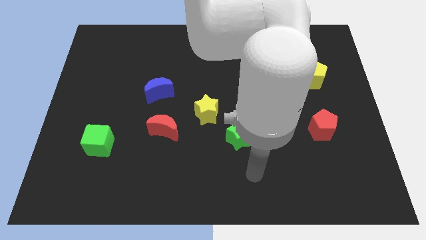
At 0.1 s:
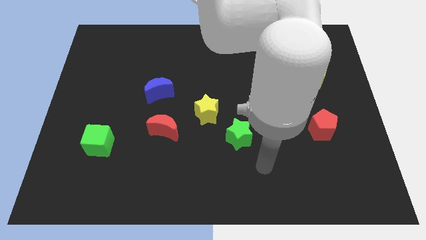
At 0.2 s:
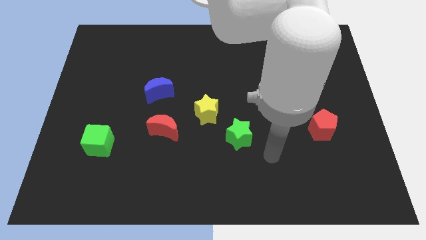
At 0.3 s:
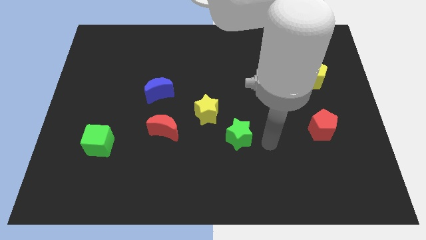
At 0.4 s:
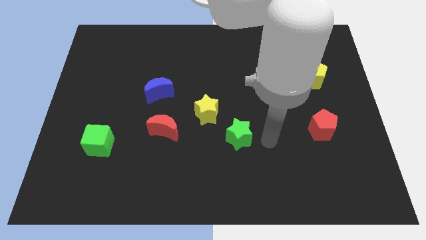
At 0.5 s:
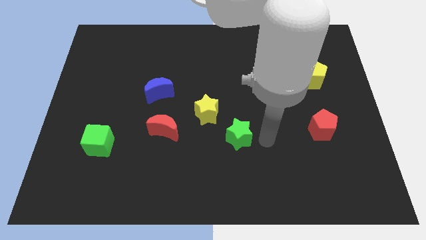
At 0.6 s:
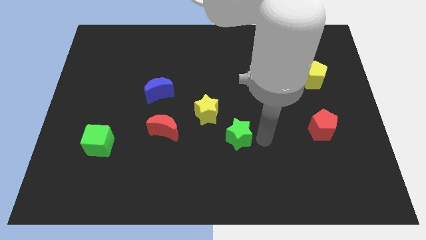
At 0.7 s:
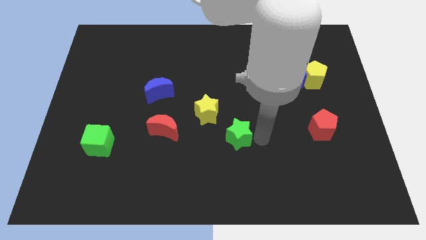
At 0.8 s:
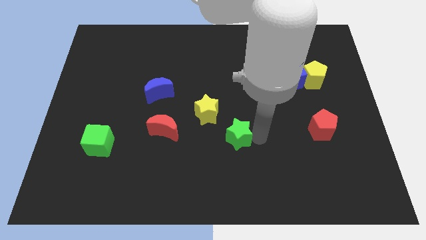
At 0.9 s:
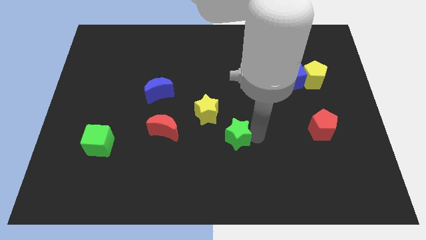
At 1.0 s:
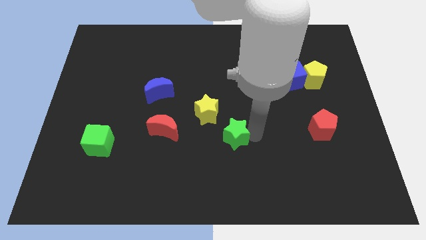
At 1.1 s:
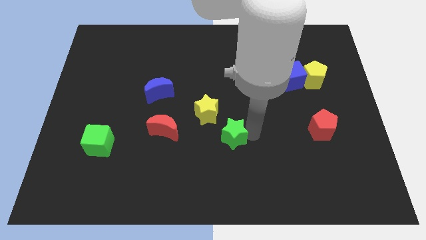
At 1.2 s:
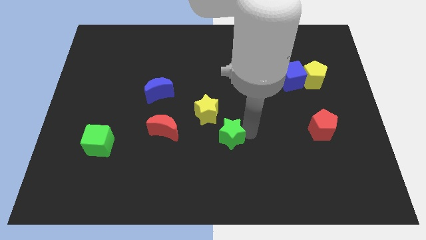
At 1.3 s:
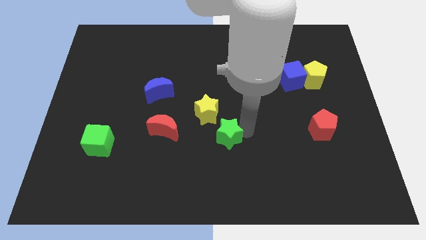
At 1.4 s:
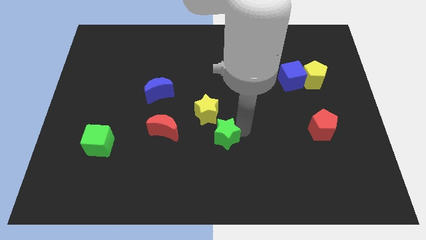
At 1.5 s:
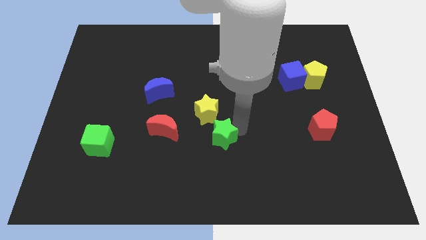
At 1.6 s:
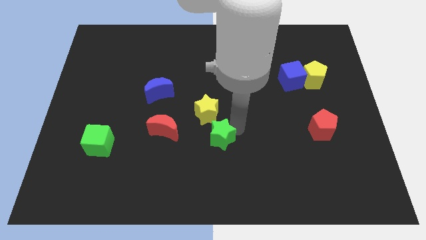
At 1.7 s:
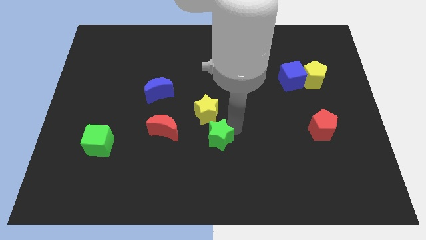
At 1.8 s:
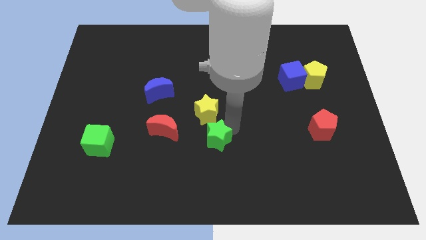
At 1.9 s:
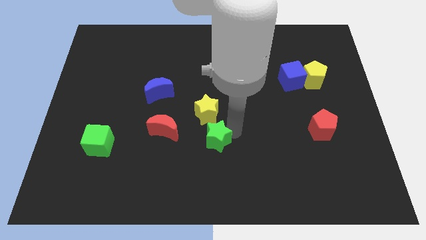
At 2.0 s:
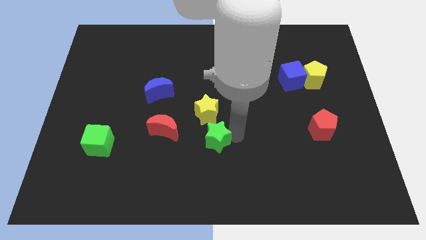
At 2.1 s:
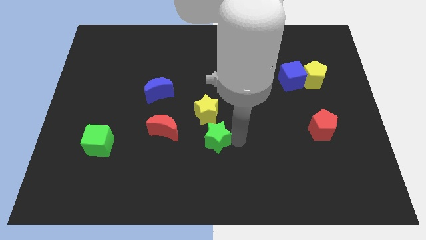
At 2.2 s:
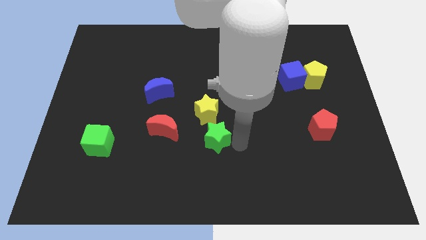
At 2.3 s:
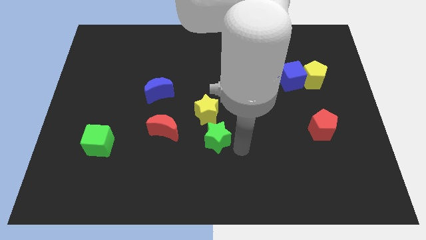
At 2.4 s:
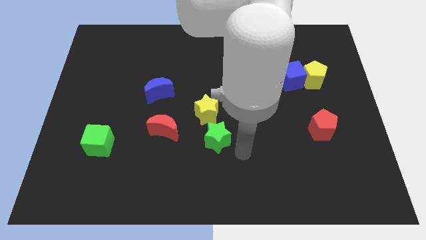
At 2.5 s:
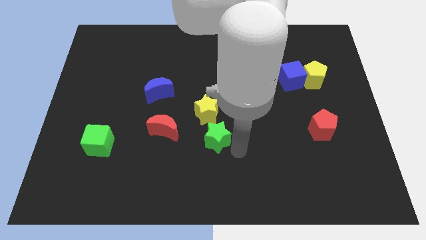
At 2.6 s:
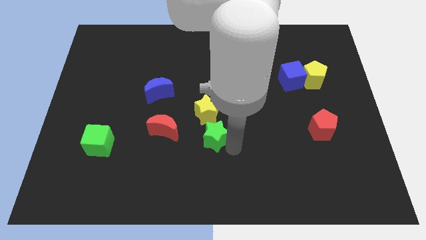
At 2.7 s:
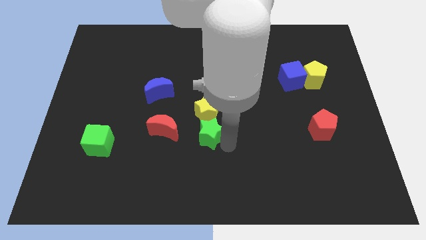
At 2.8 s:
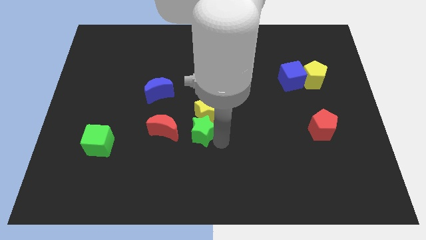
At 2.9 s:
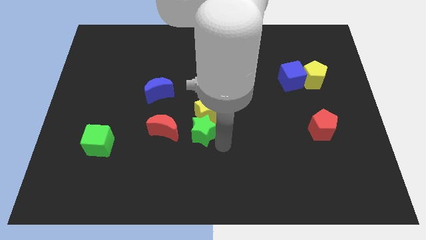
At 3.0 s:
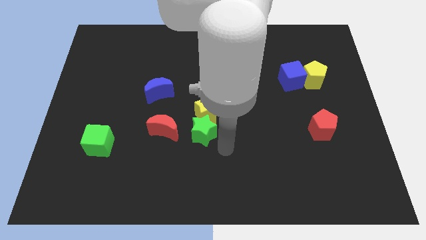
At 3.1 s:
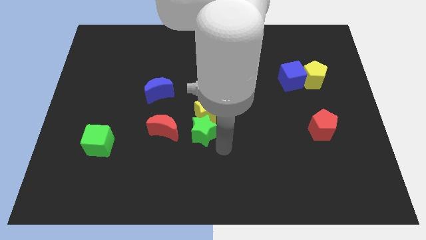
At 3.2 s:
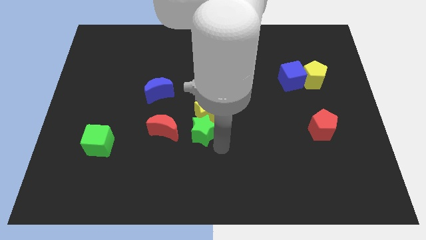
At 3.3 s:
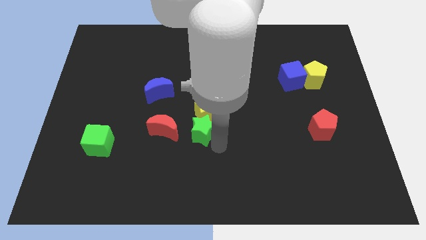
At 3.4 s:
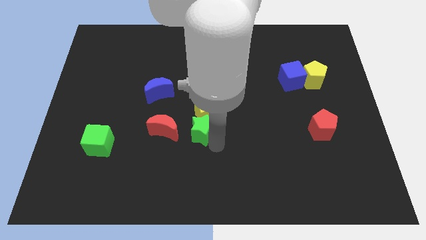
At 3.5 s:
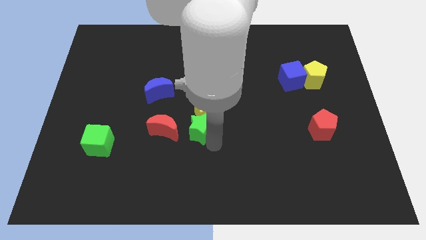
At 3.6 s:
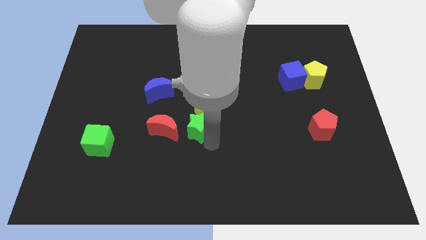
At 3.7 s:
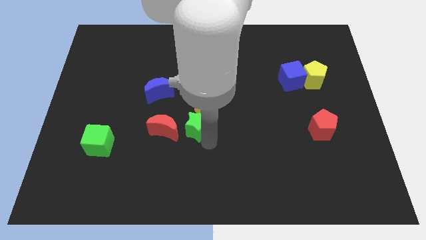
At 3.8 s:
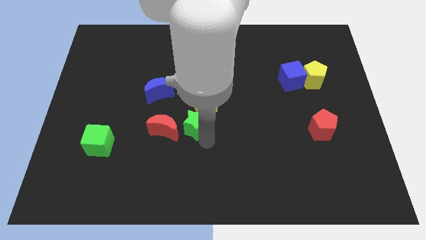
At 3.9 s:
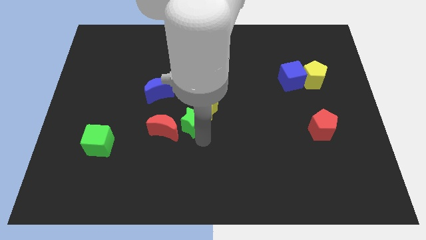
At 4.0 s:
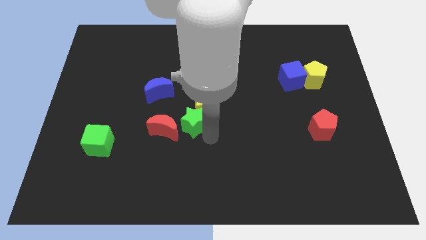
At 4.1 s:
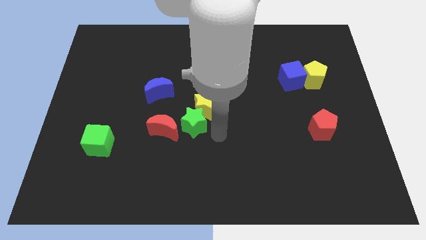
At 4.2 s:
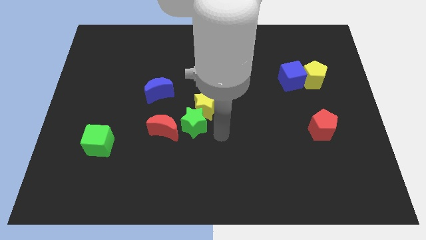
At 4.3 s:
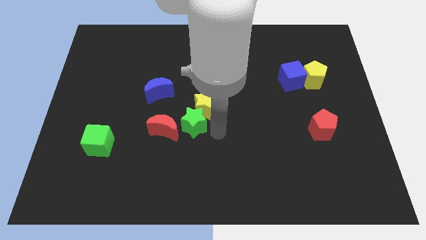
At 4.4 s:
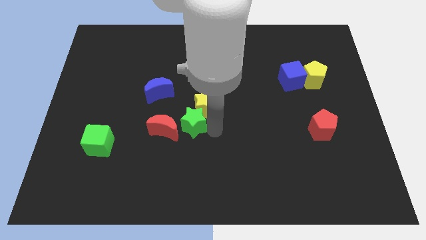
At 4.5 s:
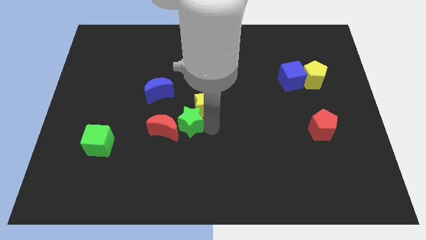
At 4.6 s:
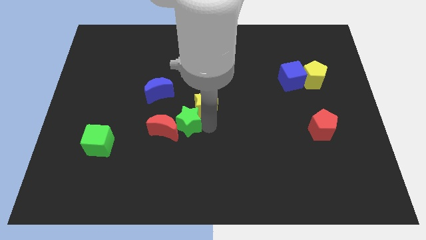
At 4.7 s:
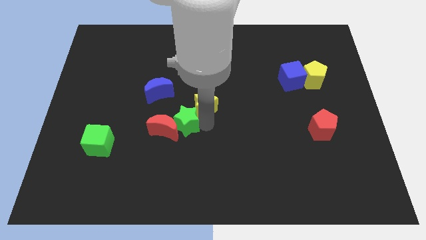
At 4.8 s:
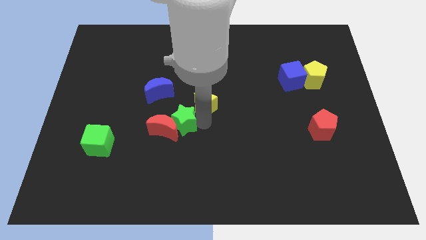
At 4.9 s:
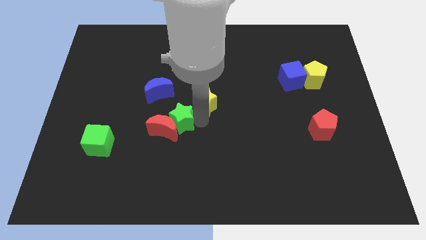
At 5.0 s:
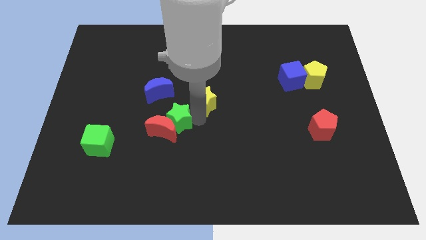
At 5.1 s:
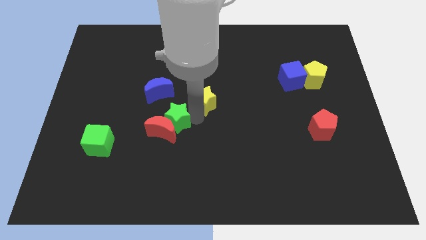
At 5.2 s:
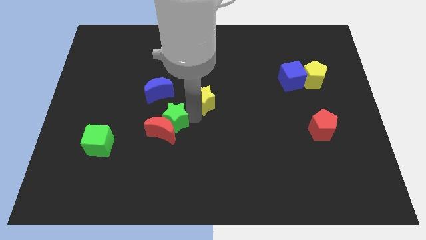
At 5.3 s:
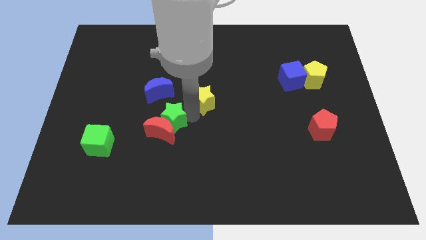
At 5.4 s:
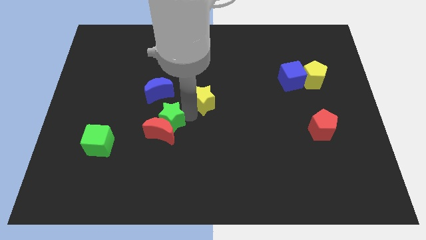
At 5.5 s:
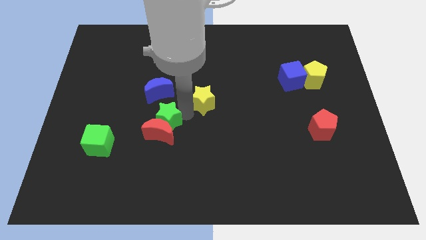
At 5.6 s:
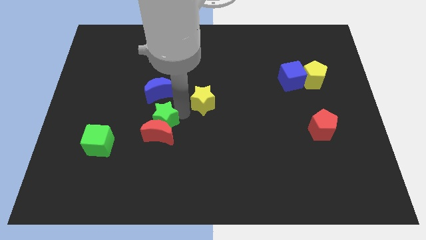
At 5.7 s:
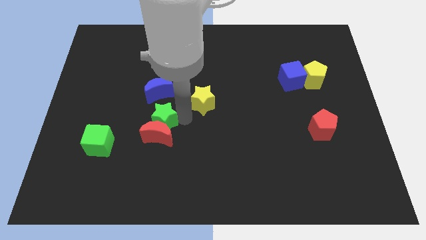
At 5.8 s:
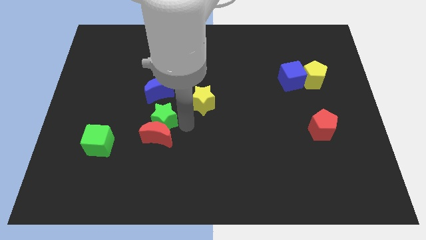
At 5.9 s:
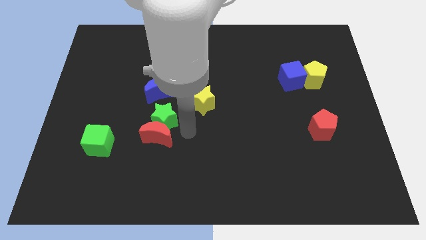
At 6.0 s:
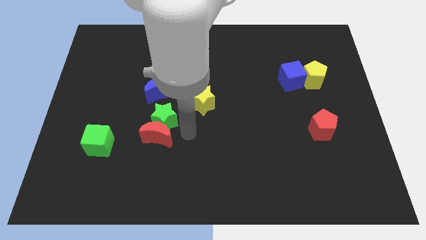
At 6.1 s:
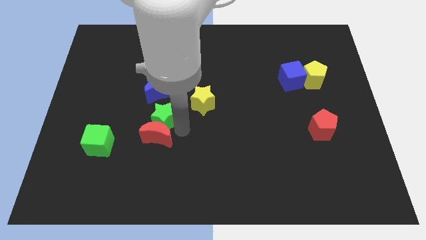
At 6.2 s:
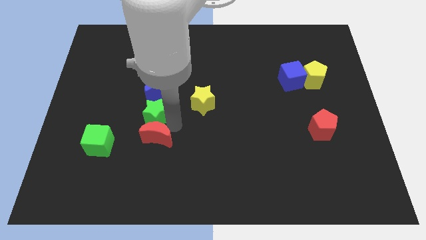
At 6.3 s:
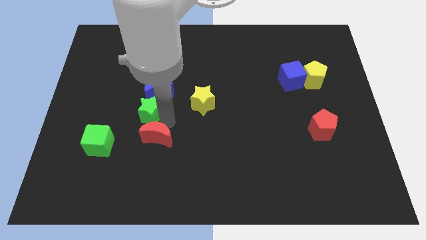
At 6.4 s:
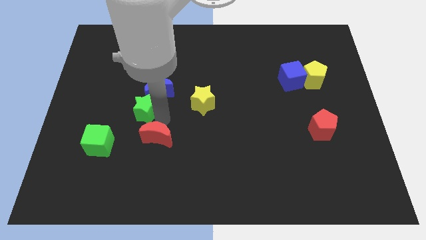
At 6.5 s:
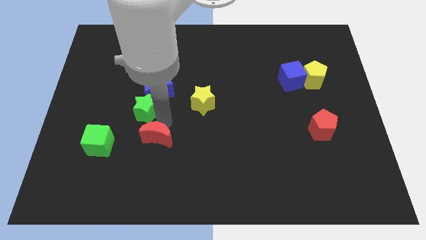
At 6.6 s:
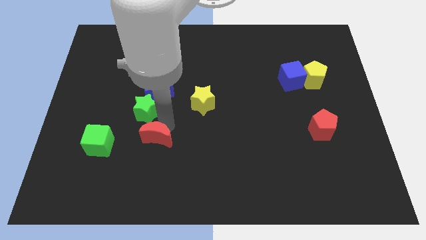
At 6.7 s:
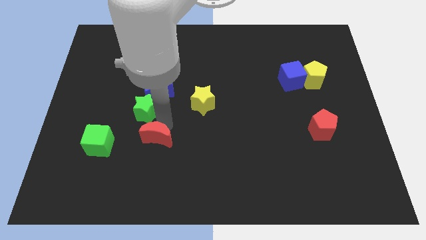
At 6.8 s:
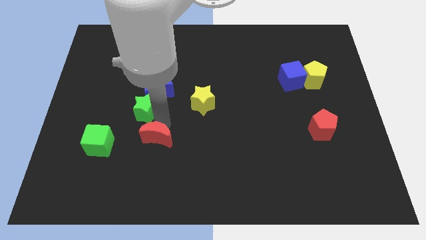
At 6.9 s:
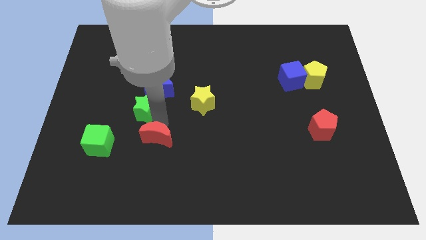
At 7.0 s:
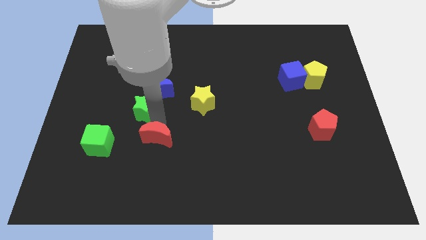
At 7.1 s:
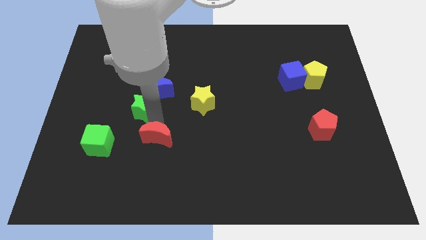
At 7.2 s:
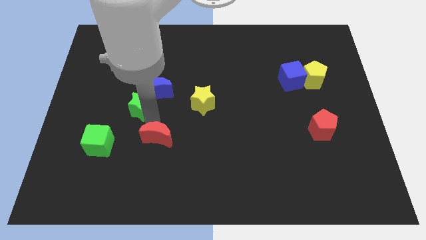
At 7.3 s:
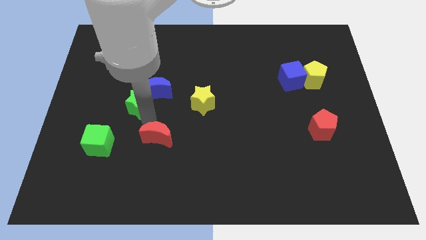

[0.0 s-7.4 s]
put the green star left of the blue moon
